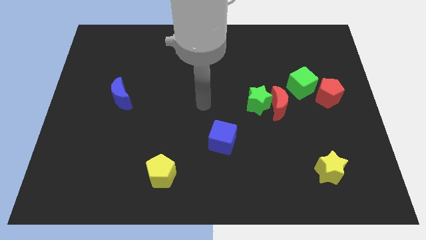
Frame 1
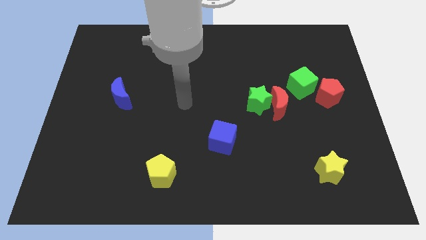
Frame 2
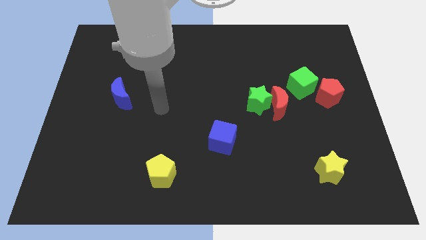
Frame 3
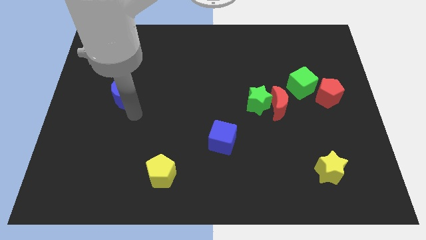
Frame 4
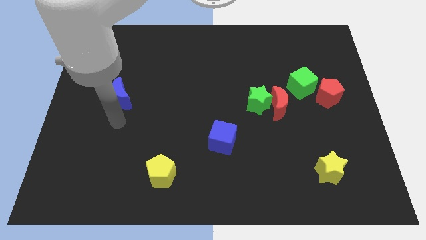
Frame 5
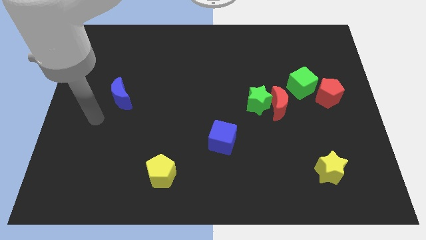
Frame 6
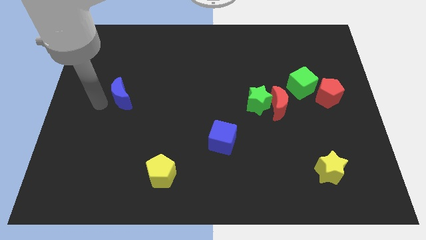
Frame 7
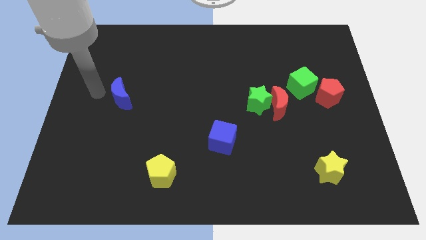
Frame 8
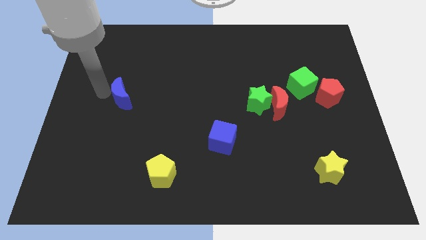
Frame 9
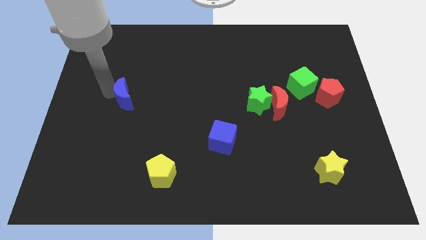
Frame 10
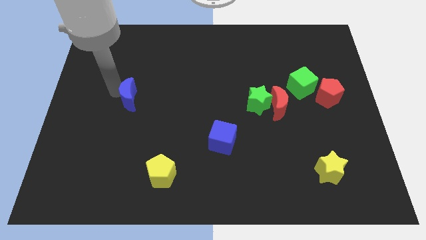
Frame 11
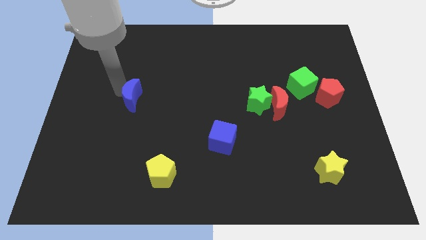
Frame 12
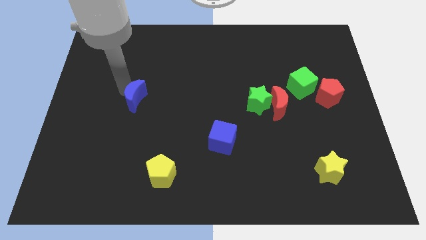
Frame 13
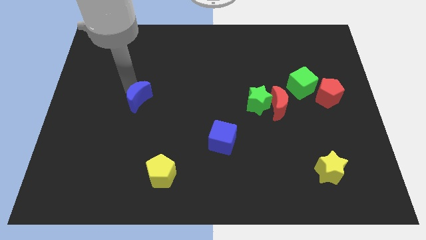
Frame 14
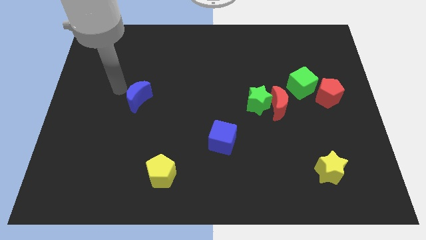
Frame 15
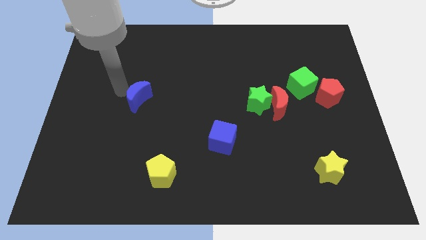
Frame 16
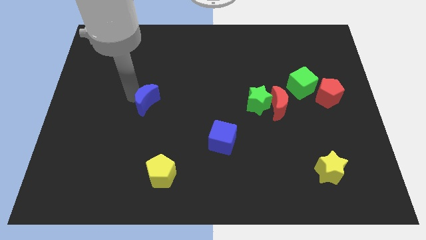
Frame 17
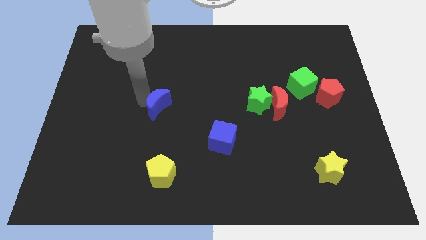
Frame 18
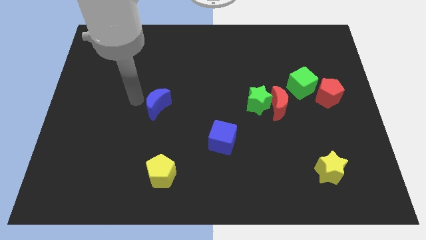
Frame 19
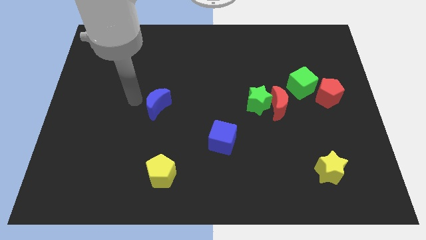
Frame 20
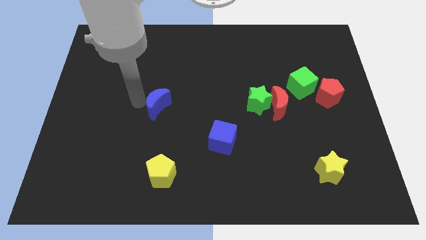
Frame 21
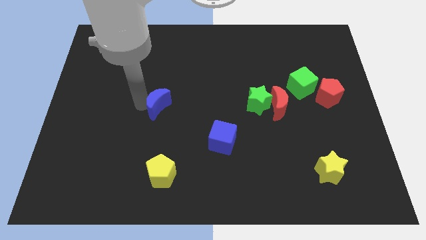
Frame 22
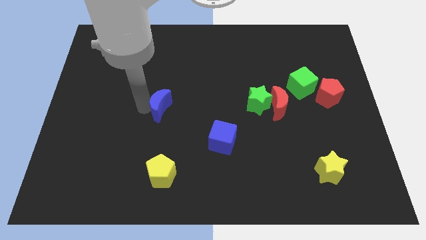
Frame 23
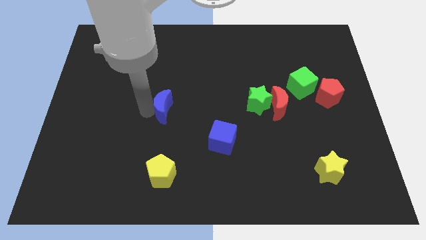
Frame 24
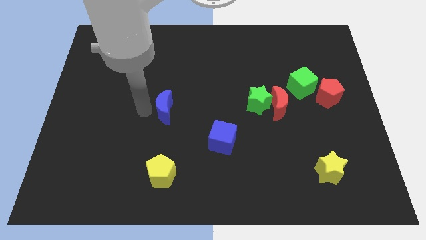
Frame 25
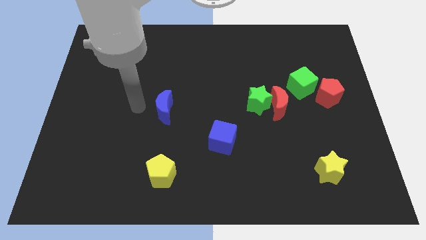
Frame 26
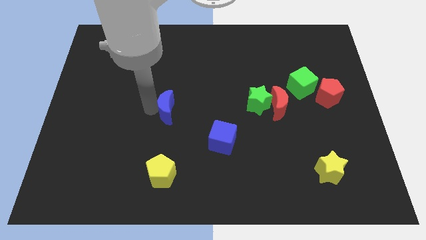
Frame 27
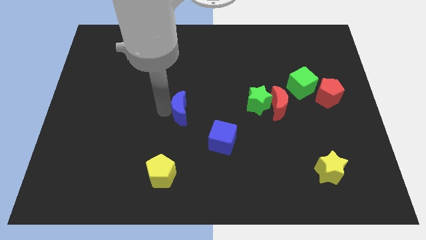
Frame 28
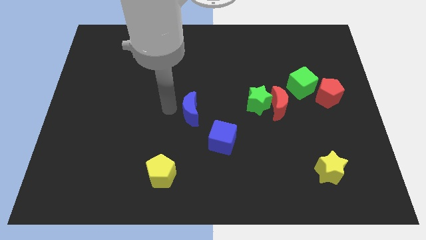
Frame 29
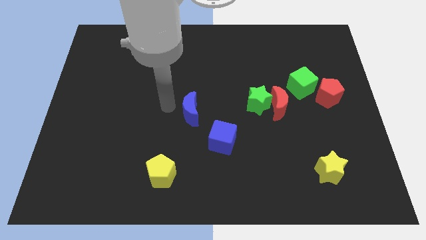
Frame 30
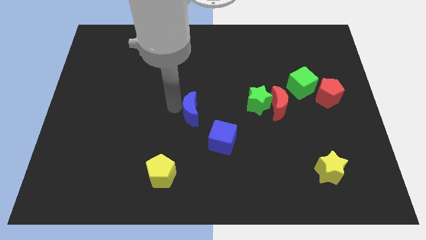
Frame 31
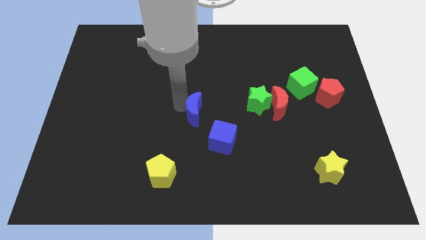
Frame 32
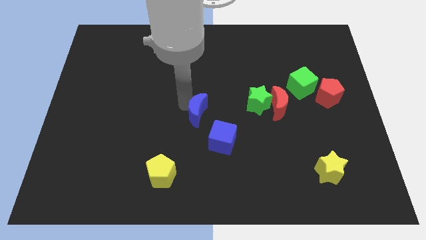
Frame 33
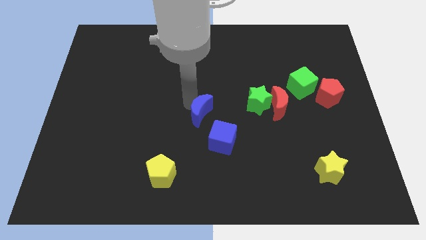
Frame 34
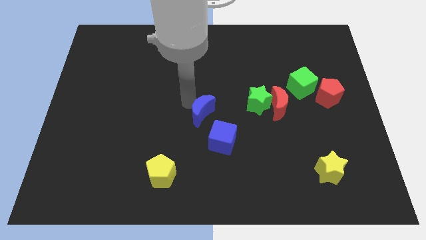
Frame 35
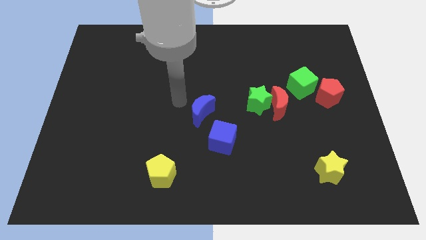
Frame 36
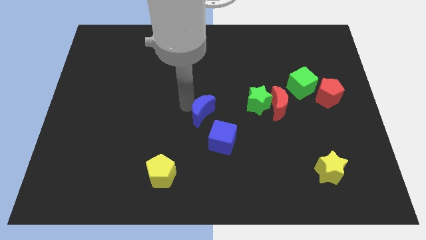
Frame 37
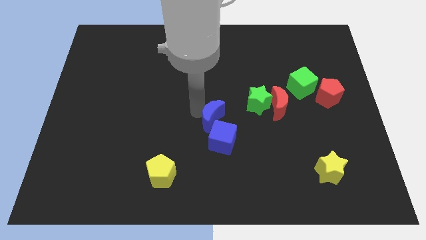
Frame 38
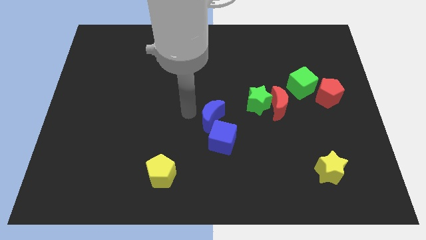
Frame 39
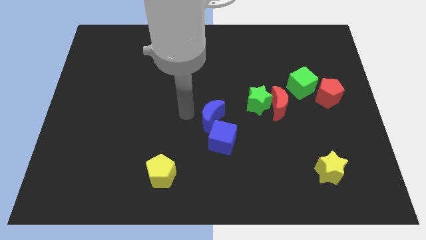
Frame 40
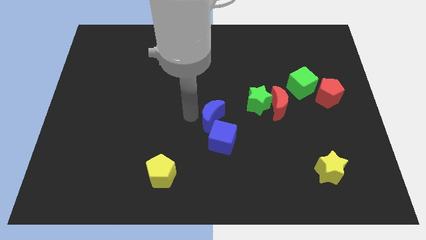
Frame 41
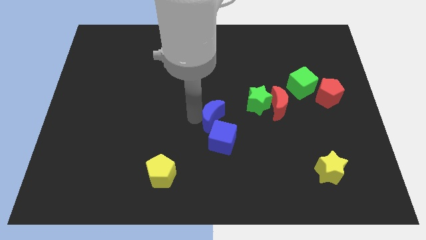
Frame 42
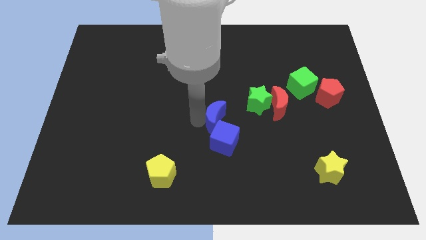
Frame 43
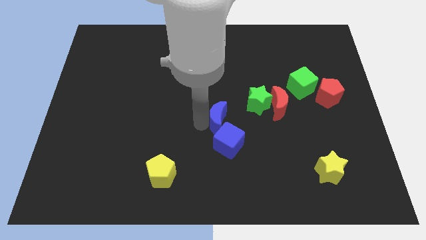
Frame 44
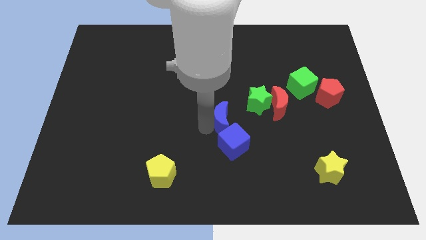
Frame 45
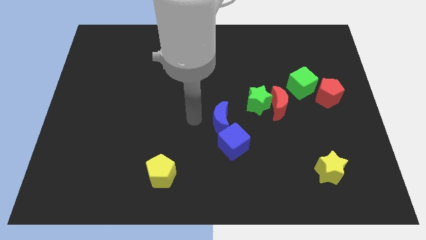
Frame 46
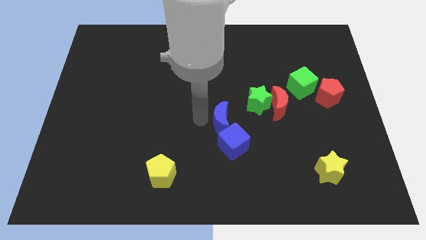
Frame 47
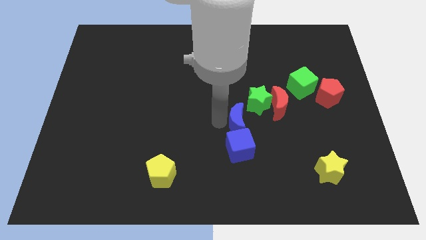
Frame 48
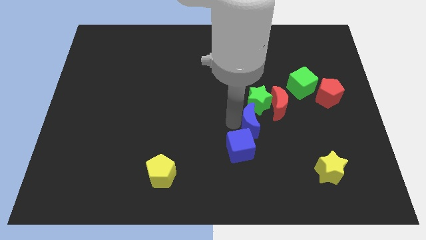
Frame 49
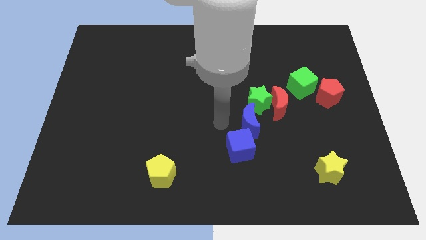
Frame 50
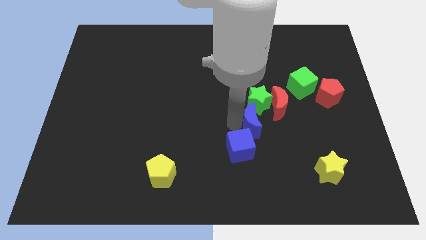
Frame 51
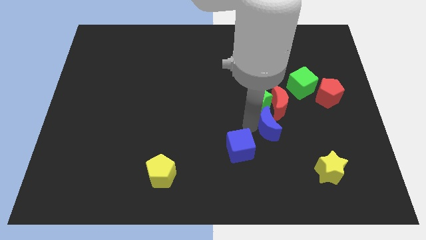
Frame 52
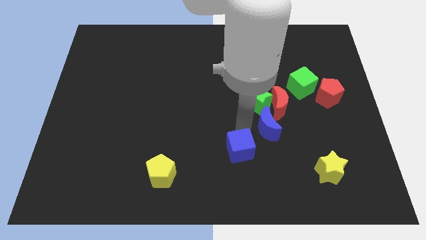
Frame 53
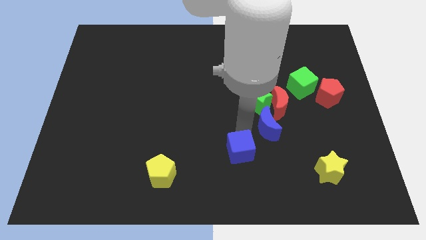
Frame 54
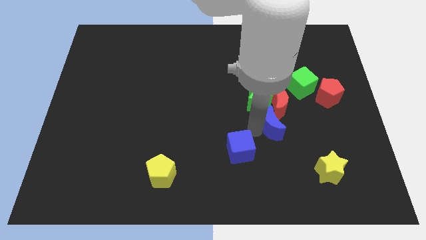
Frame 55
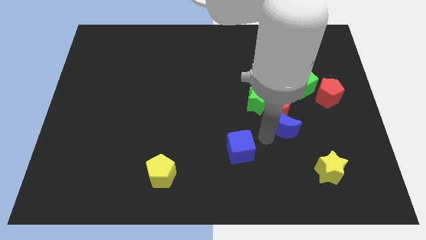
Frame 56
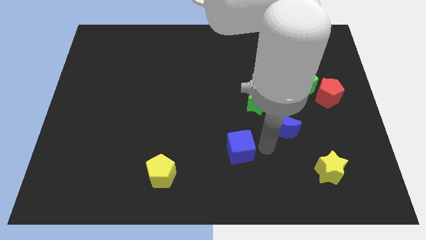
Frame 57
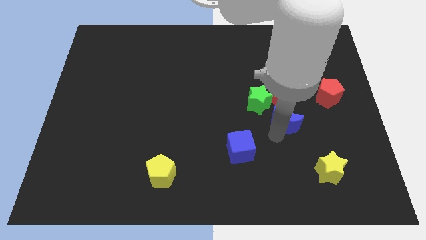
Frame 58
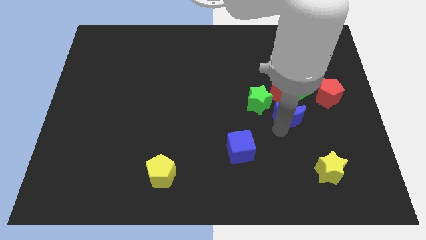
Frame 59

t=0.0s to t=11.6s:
put the blue moon to the right of the green star

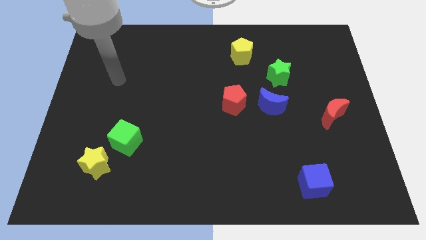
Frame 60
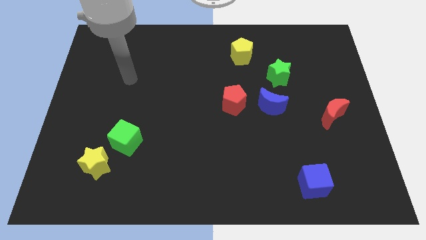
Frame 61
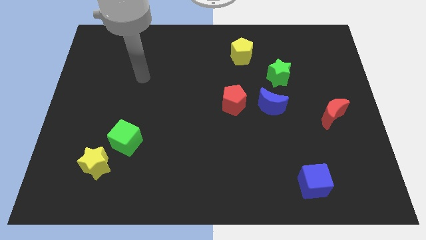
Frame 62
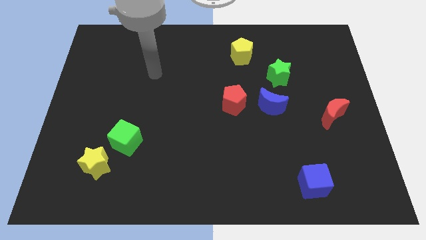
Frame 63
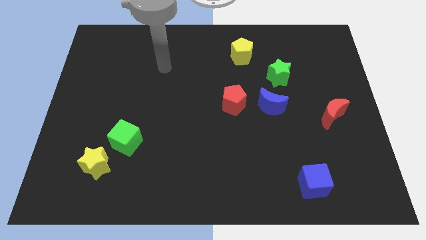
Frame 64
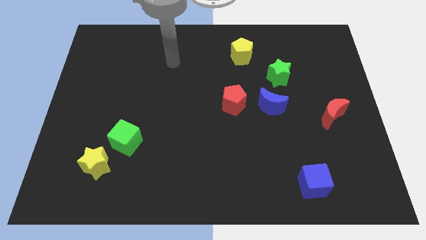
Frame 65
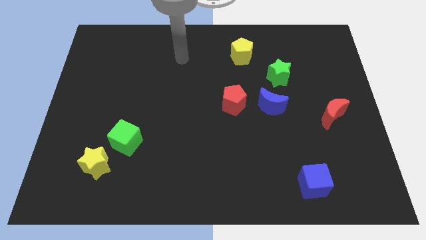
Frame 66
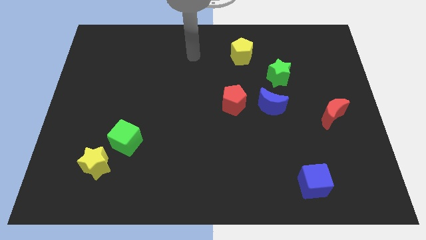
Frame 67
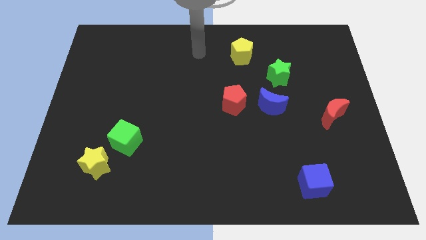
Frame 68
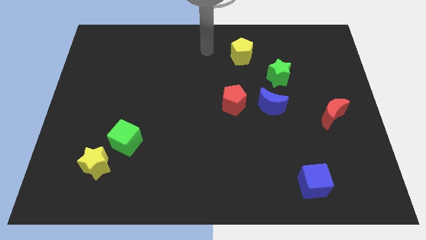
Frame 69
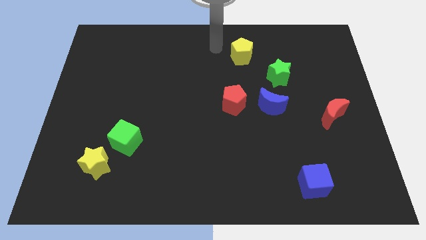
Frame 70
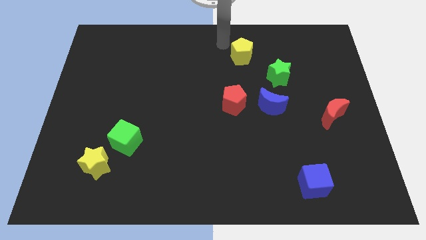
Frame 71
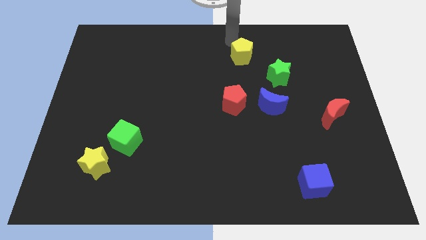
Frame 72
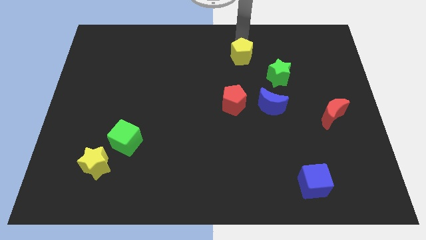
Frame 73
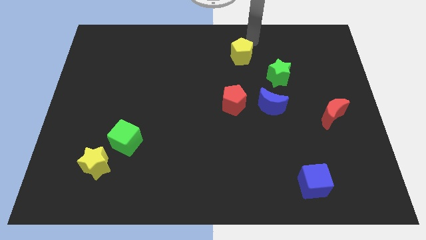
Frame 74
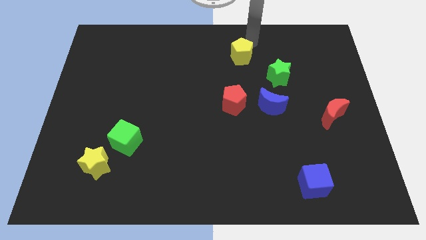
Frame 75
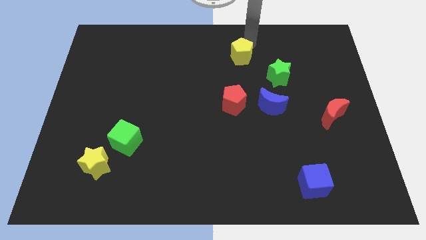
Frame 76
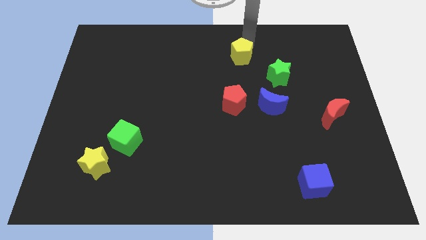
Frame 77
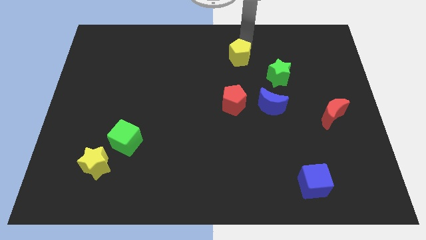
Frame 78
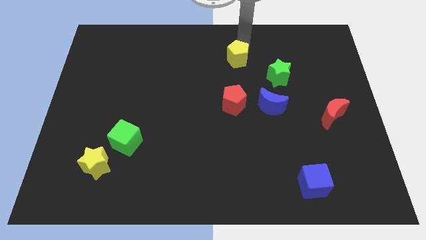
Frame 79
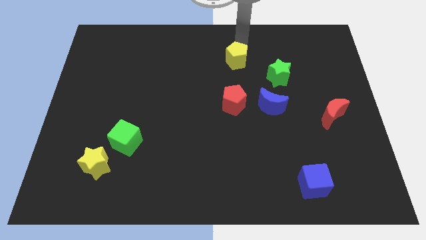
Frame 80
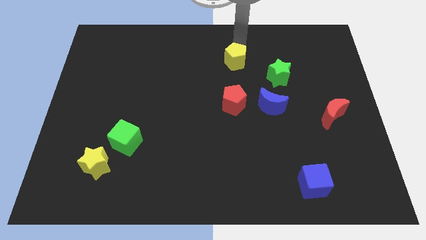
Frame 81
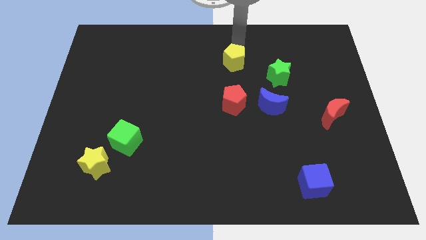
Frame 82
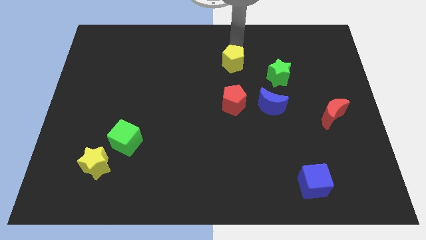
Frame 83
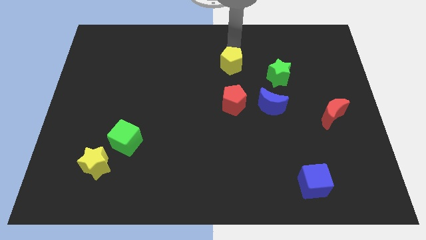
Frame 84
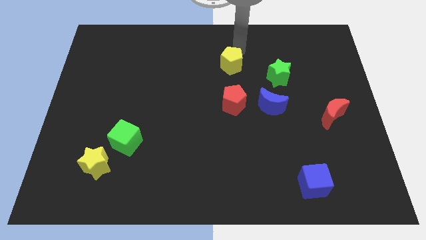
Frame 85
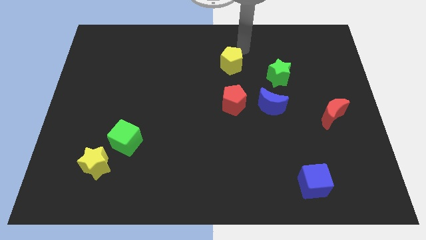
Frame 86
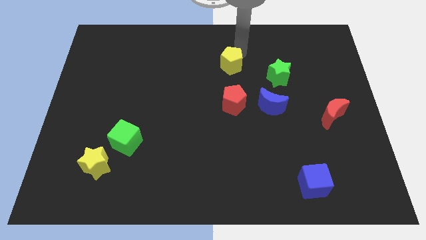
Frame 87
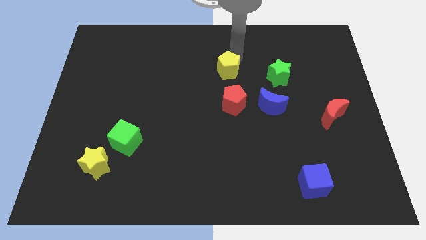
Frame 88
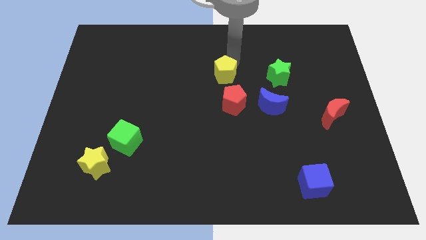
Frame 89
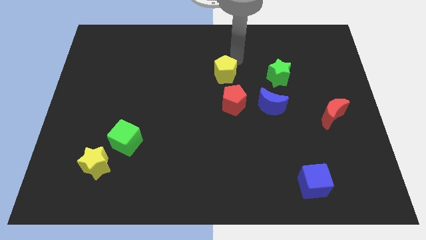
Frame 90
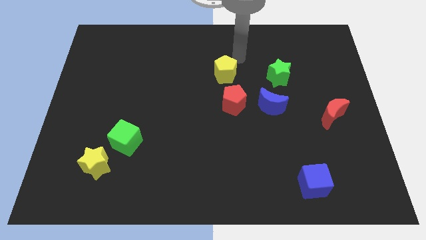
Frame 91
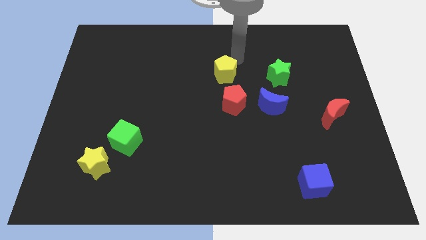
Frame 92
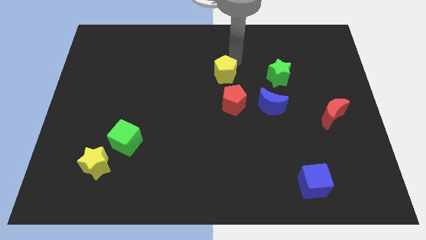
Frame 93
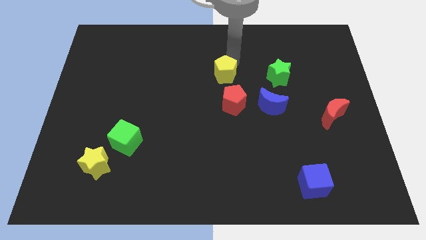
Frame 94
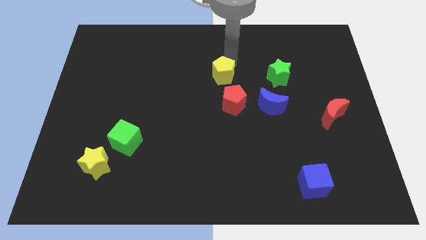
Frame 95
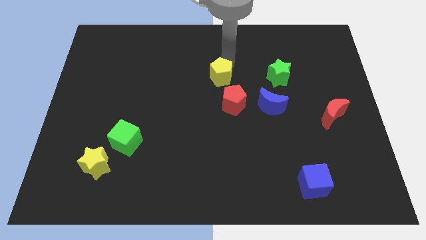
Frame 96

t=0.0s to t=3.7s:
put the yellow pentagon to the top left of the red pentagon
